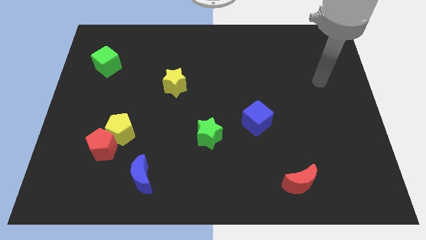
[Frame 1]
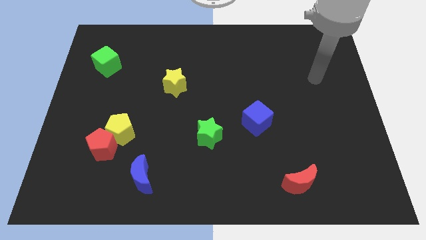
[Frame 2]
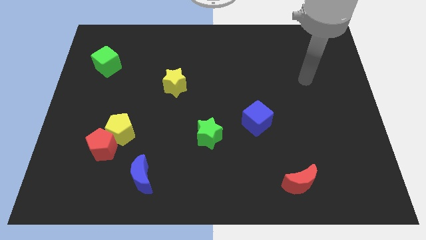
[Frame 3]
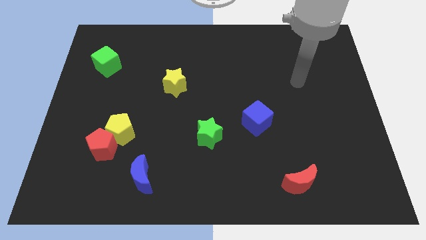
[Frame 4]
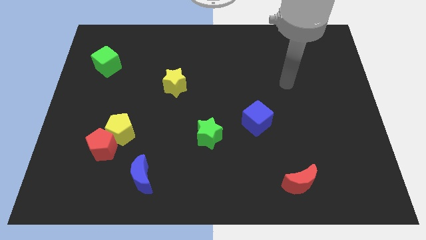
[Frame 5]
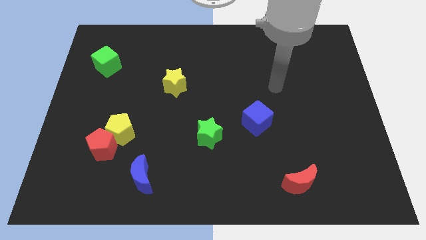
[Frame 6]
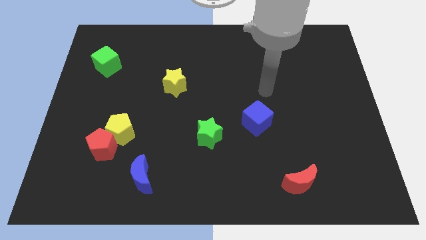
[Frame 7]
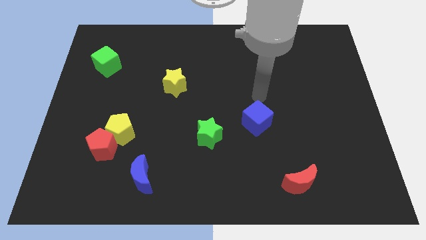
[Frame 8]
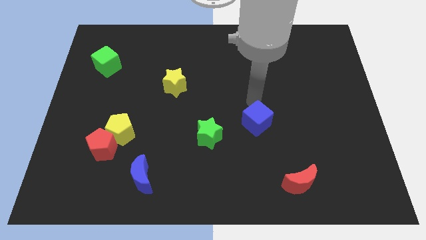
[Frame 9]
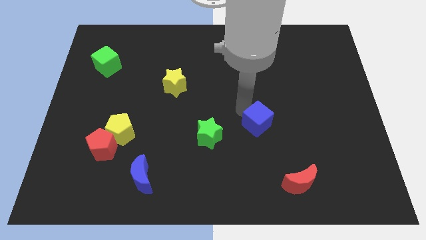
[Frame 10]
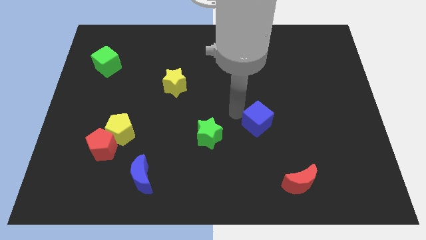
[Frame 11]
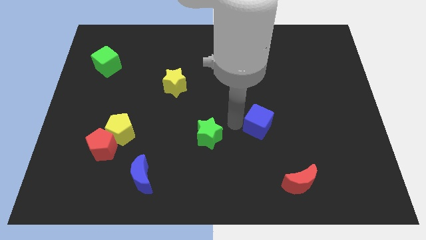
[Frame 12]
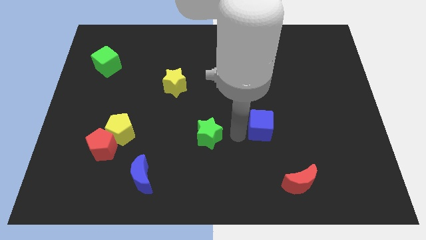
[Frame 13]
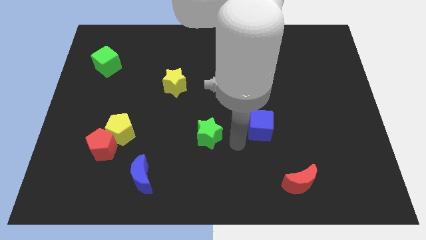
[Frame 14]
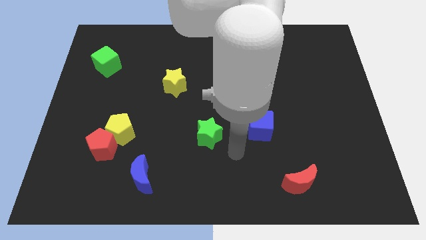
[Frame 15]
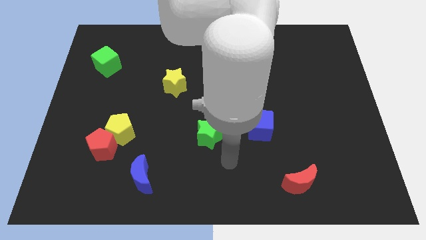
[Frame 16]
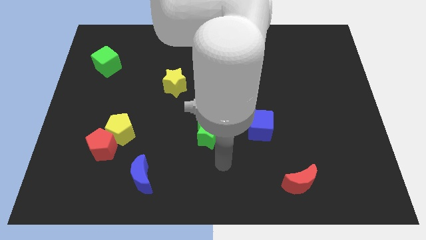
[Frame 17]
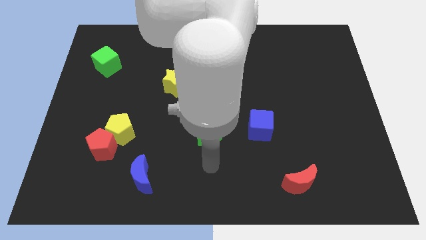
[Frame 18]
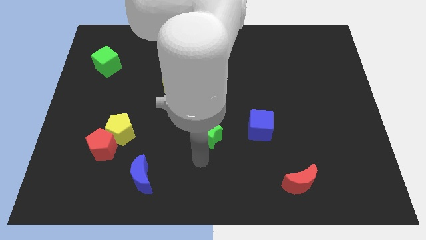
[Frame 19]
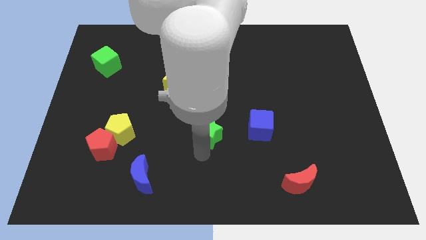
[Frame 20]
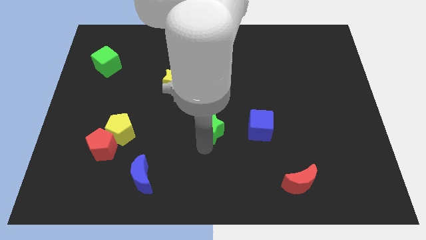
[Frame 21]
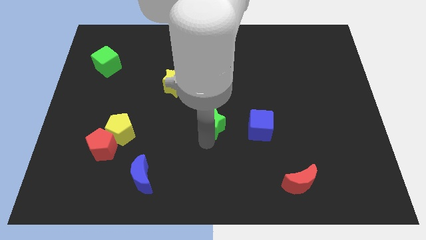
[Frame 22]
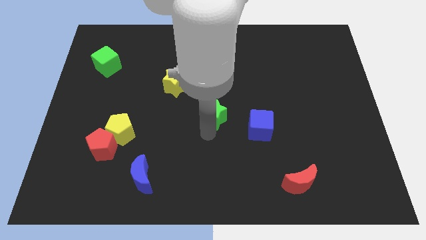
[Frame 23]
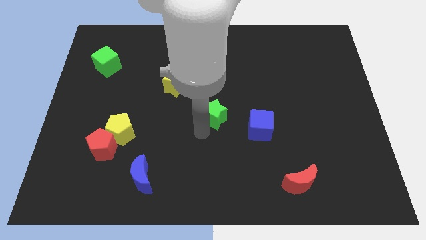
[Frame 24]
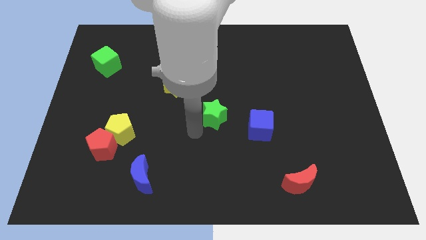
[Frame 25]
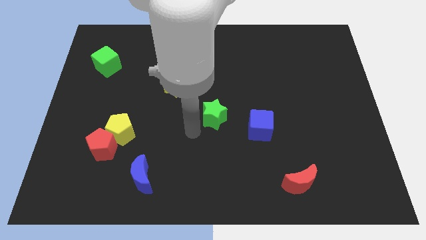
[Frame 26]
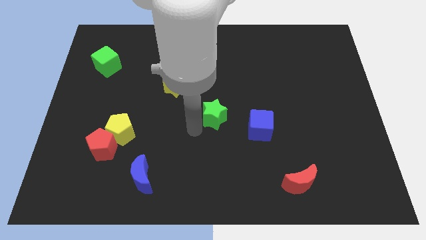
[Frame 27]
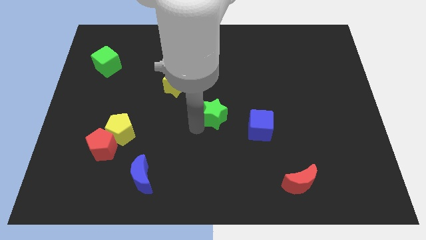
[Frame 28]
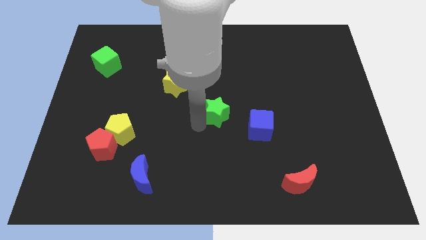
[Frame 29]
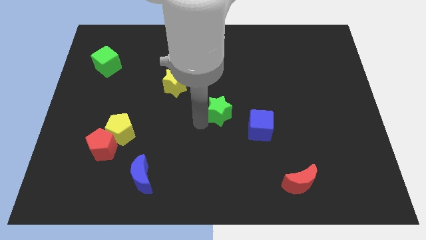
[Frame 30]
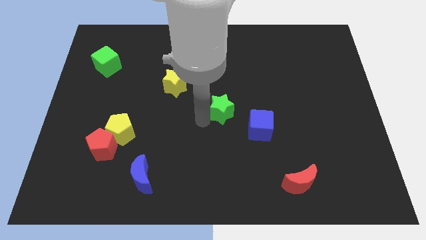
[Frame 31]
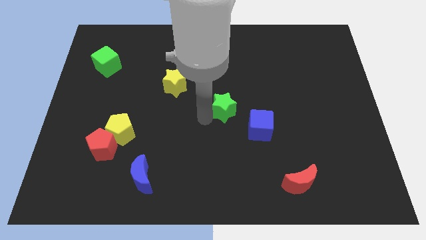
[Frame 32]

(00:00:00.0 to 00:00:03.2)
slightly slide the green star upwards and then to the right

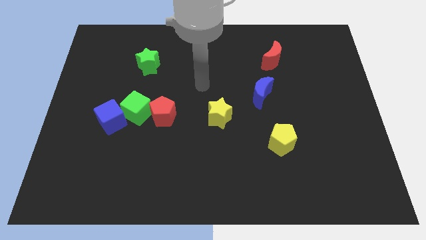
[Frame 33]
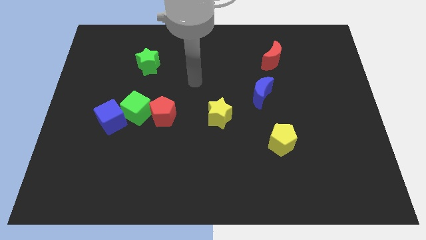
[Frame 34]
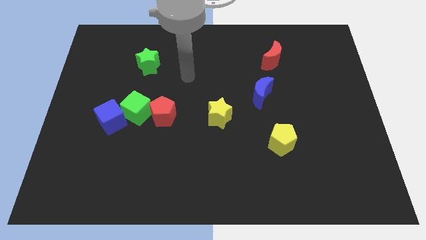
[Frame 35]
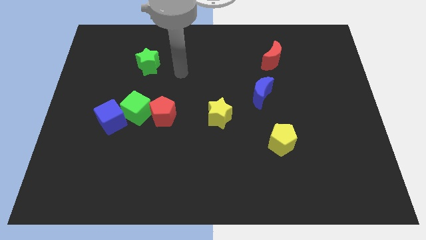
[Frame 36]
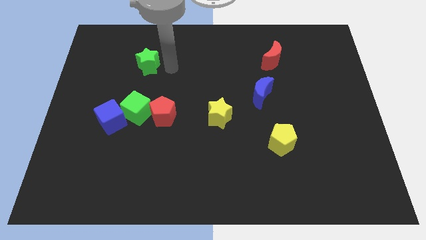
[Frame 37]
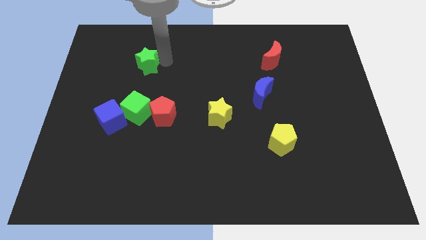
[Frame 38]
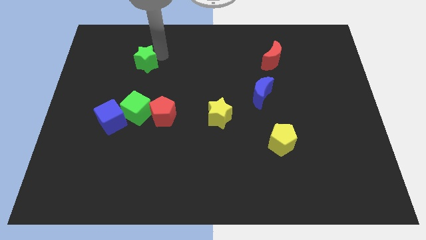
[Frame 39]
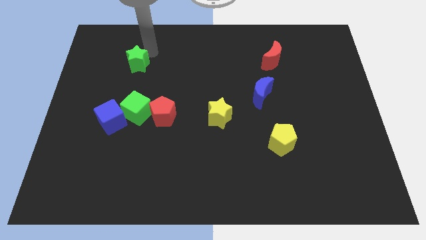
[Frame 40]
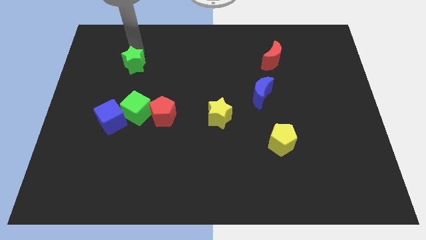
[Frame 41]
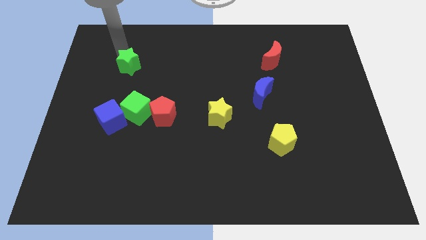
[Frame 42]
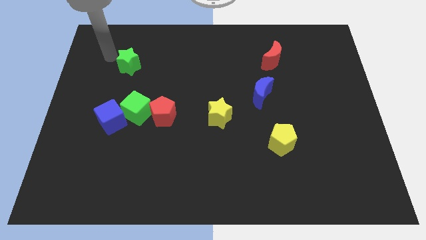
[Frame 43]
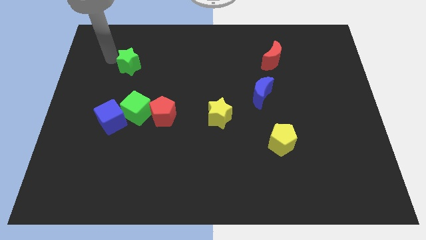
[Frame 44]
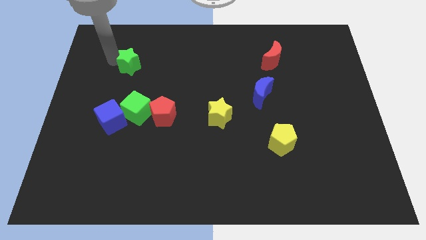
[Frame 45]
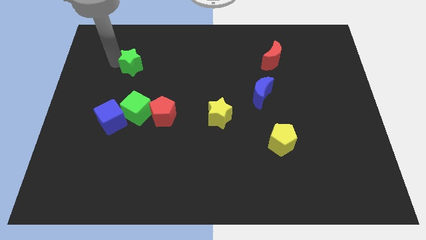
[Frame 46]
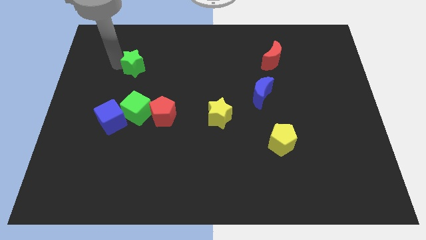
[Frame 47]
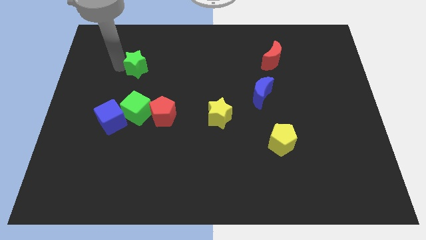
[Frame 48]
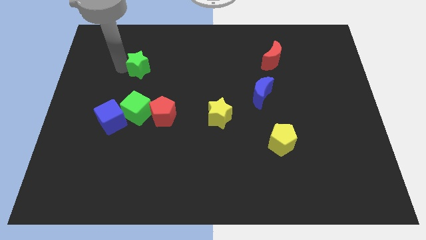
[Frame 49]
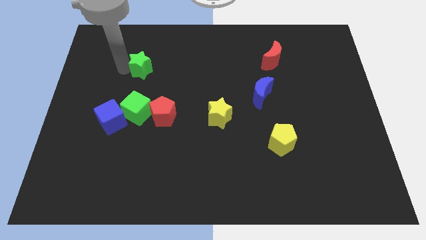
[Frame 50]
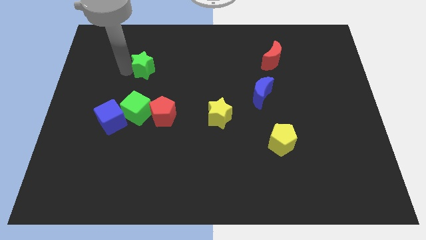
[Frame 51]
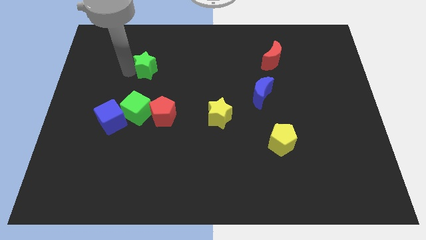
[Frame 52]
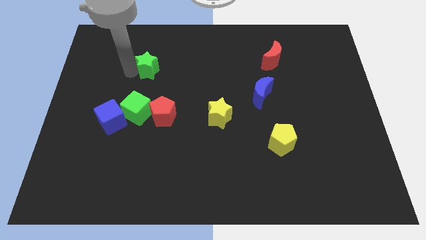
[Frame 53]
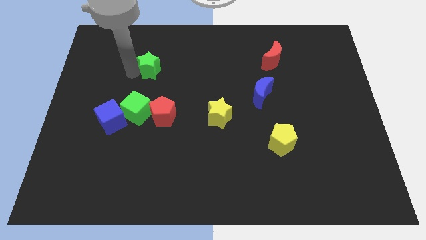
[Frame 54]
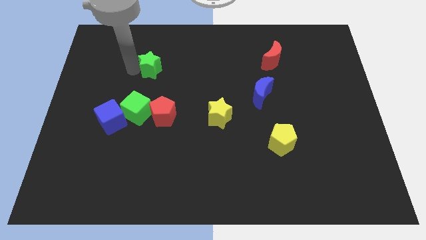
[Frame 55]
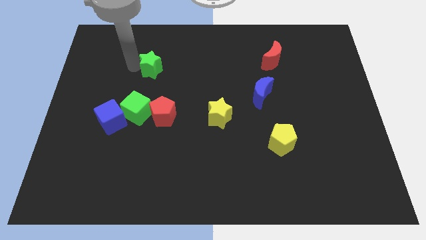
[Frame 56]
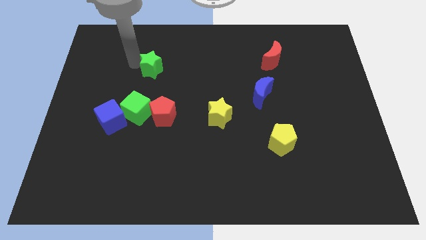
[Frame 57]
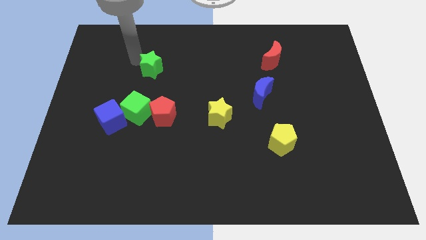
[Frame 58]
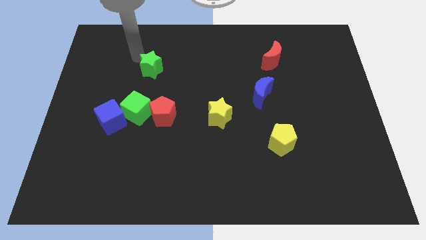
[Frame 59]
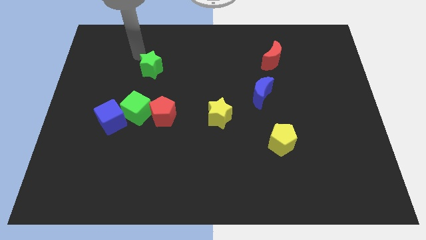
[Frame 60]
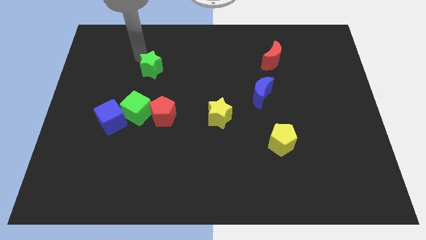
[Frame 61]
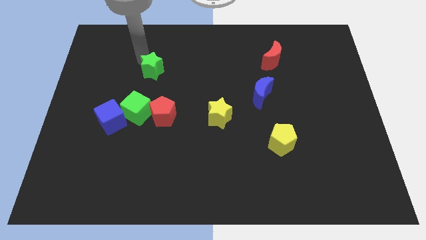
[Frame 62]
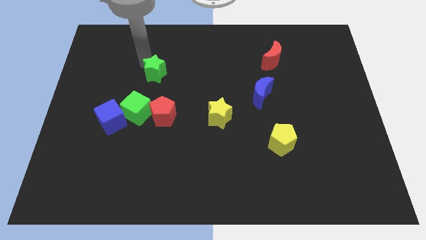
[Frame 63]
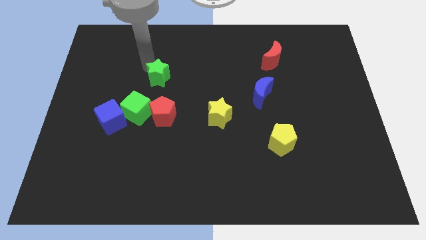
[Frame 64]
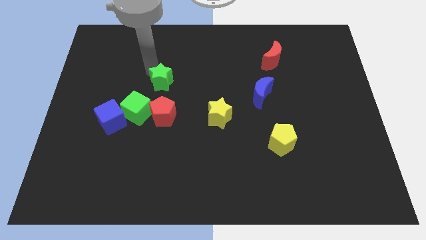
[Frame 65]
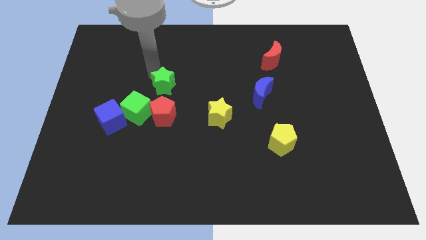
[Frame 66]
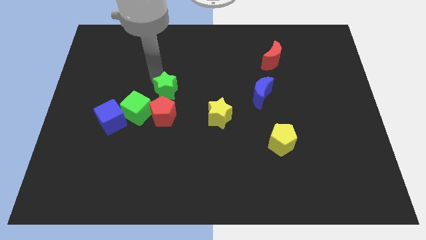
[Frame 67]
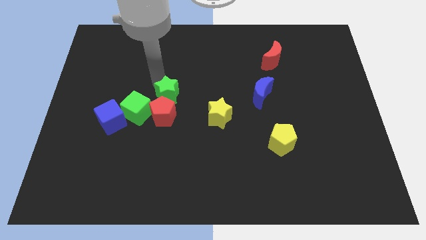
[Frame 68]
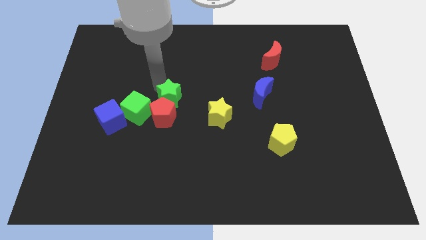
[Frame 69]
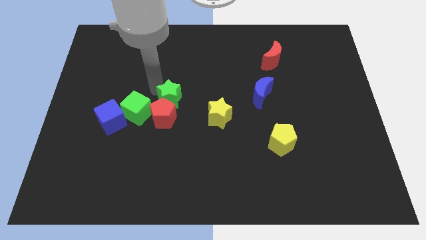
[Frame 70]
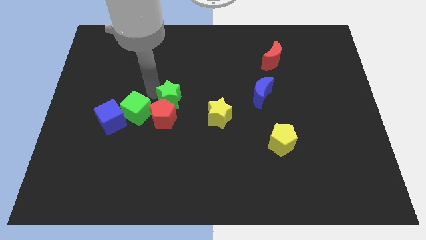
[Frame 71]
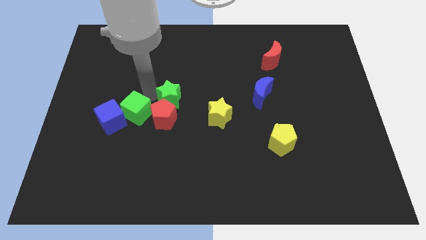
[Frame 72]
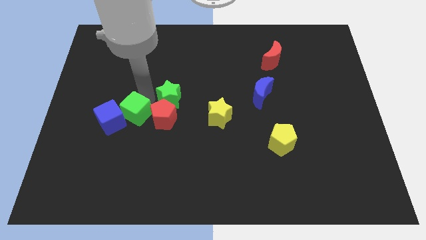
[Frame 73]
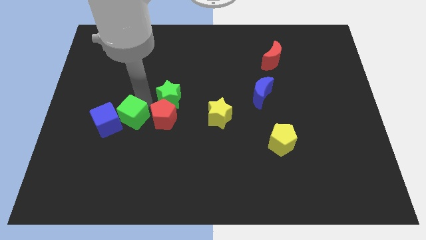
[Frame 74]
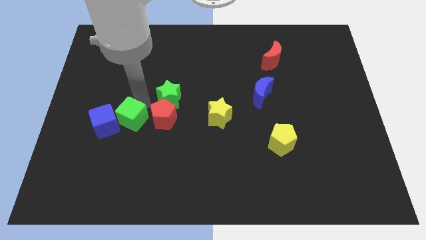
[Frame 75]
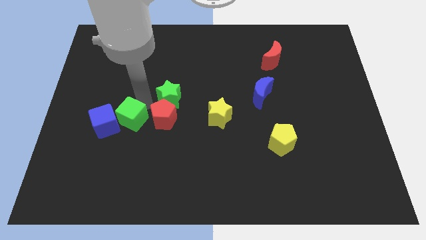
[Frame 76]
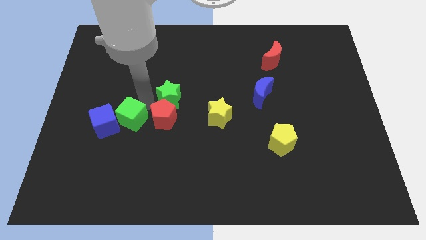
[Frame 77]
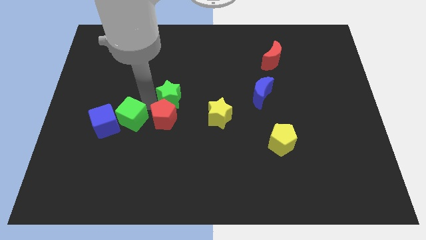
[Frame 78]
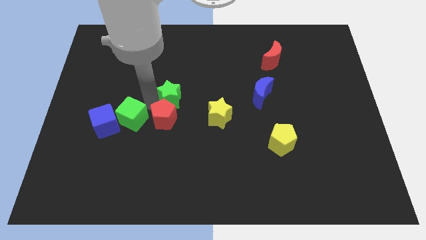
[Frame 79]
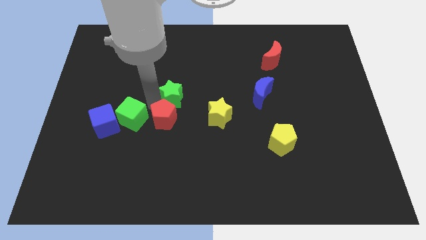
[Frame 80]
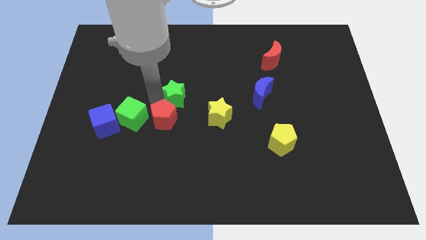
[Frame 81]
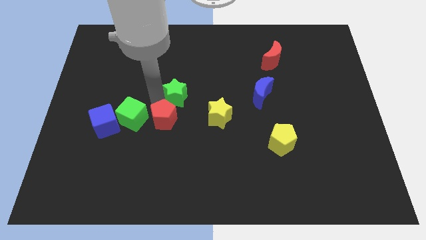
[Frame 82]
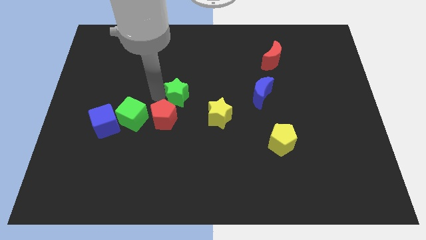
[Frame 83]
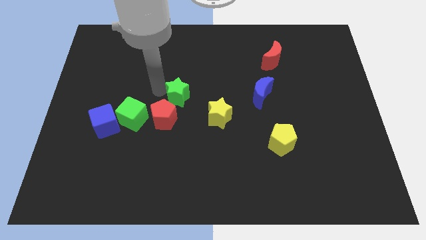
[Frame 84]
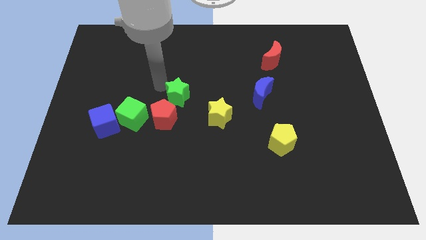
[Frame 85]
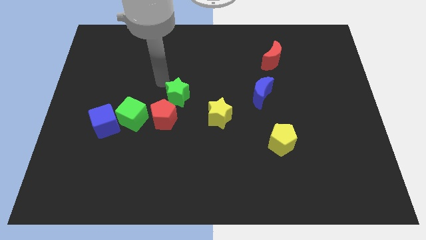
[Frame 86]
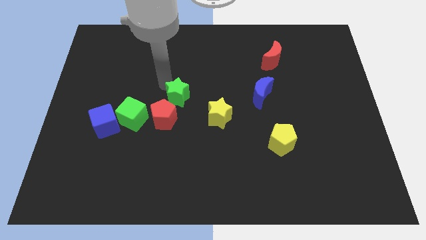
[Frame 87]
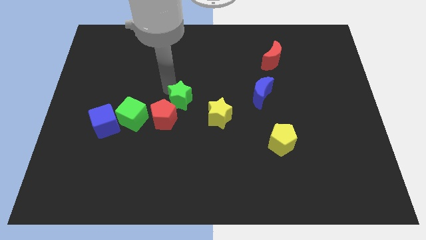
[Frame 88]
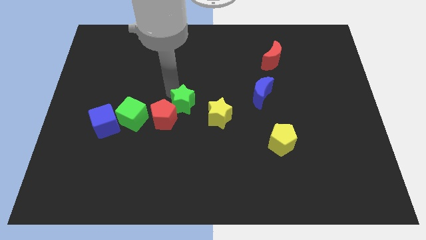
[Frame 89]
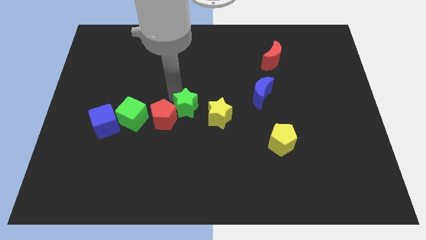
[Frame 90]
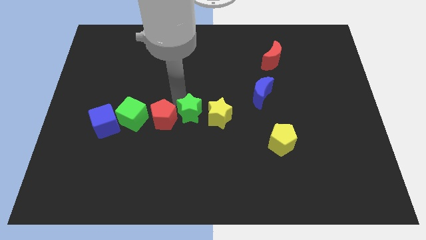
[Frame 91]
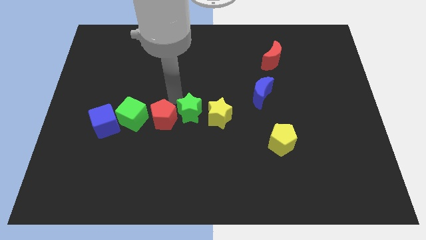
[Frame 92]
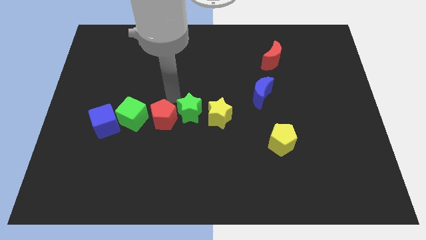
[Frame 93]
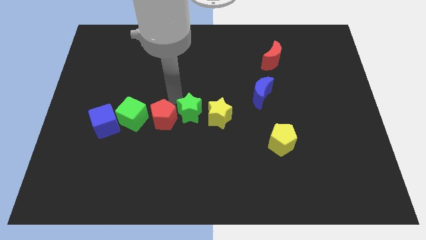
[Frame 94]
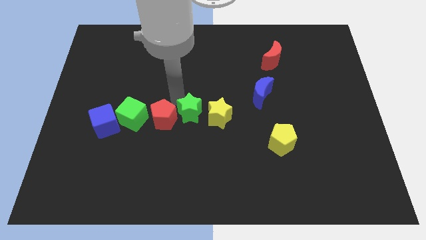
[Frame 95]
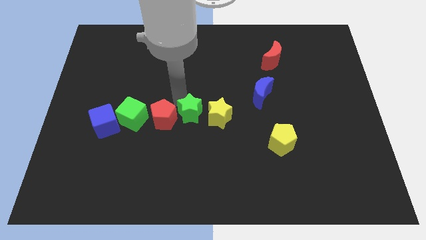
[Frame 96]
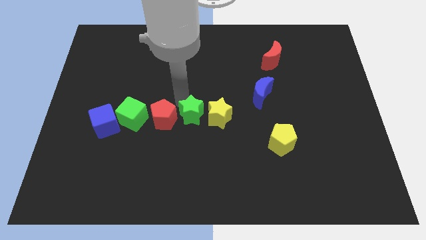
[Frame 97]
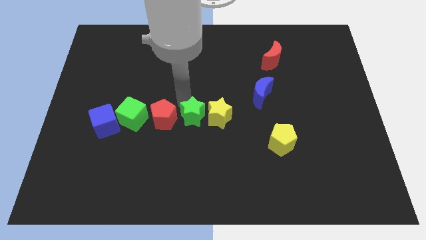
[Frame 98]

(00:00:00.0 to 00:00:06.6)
move the green star down and right
